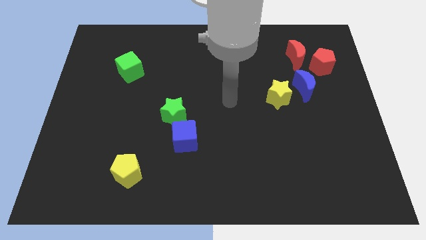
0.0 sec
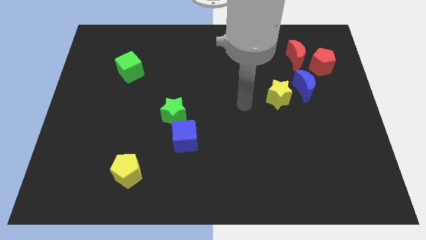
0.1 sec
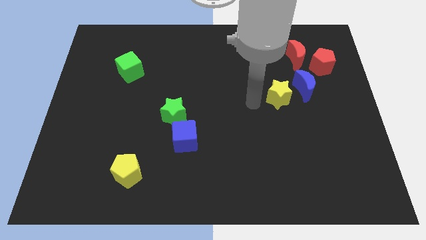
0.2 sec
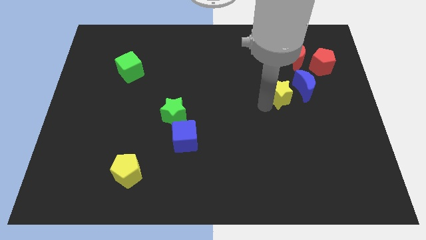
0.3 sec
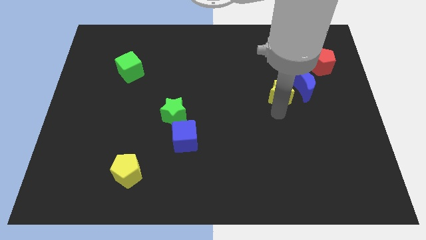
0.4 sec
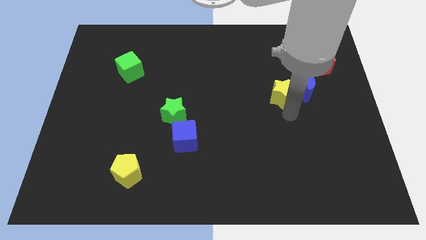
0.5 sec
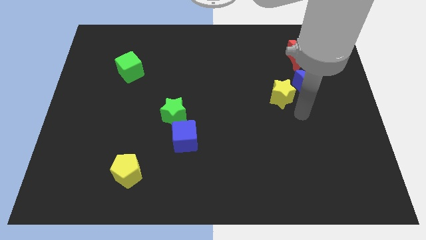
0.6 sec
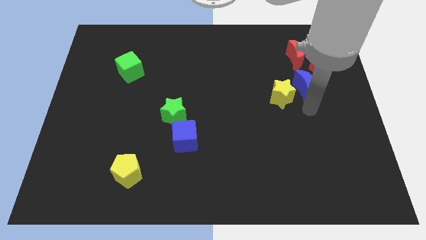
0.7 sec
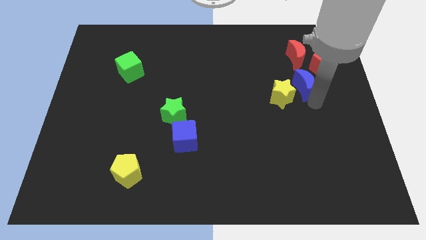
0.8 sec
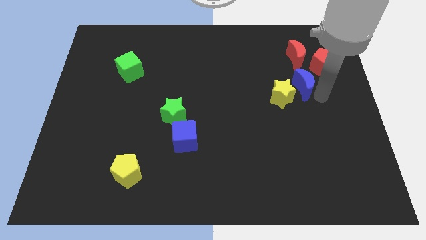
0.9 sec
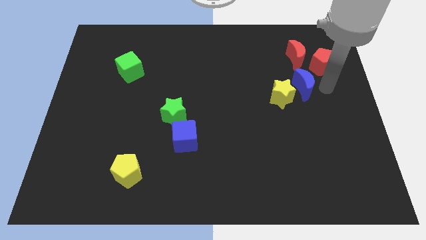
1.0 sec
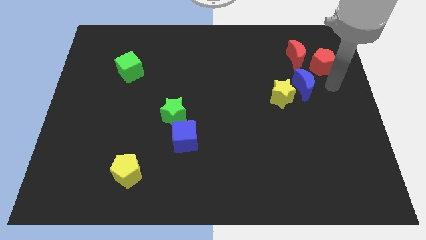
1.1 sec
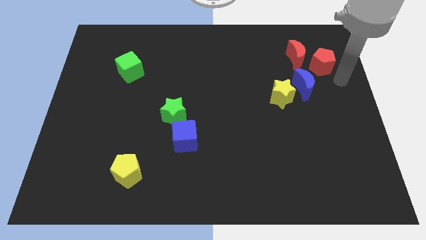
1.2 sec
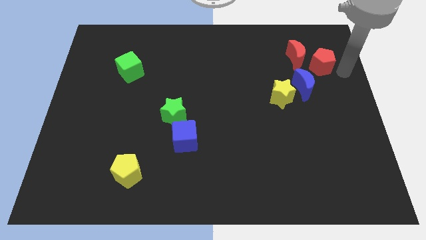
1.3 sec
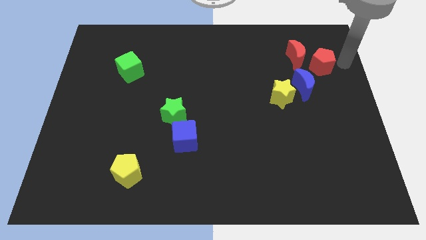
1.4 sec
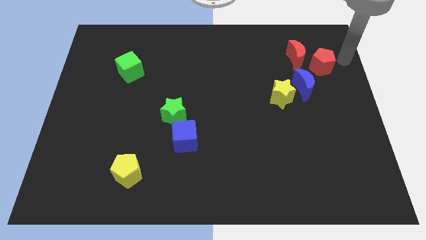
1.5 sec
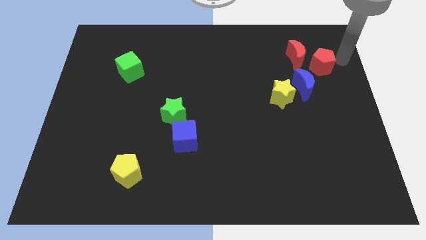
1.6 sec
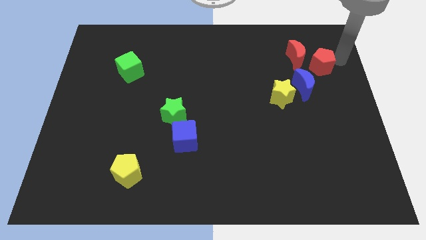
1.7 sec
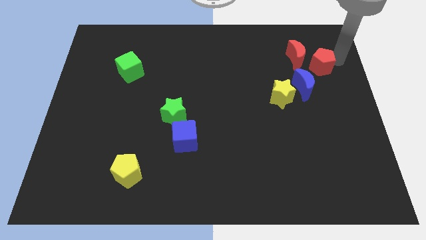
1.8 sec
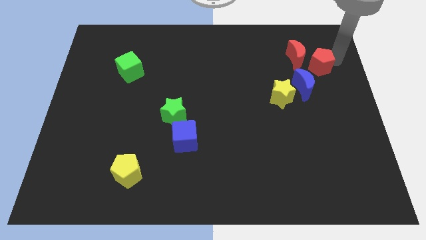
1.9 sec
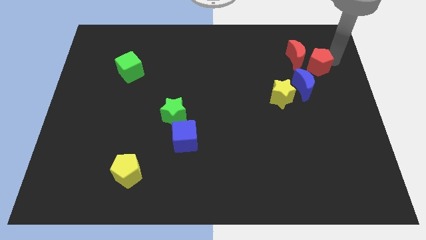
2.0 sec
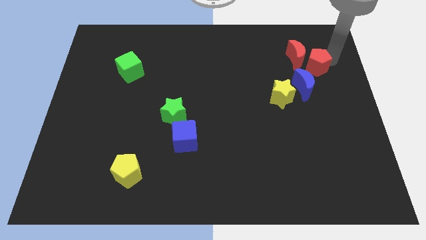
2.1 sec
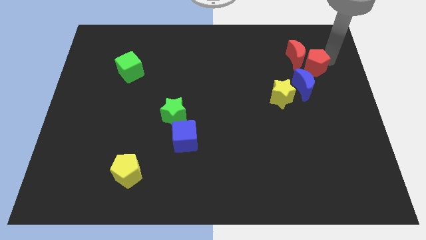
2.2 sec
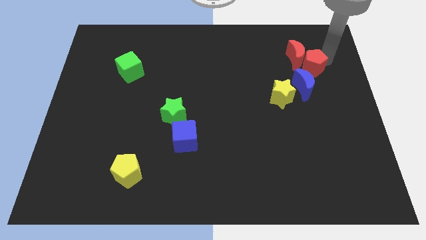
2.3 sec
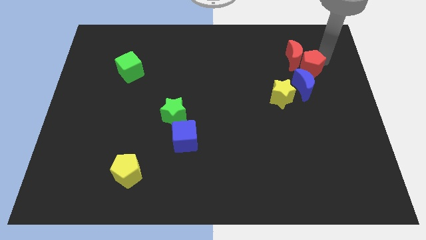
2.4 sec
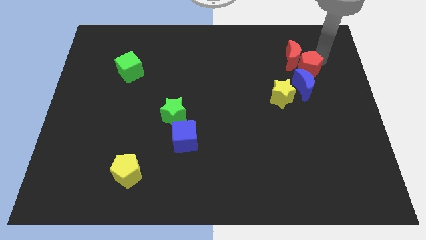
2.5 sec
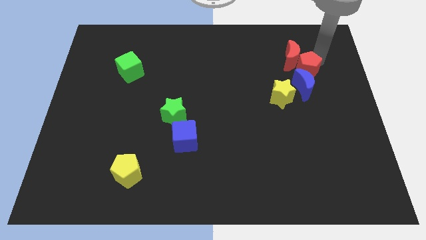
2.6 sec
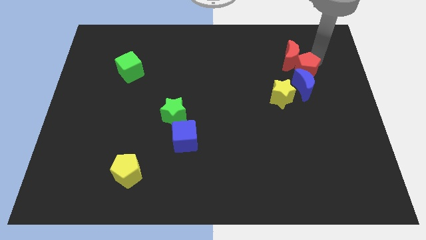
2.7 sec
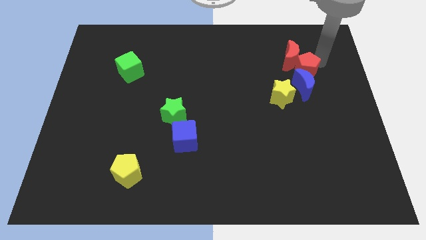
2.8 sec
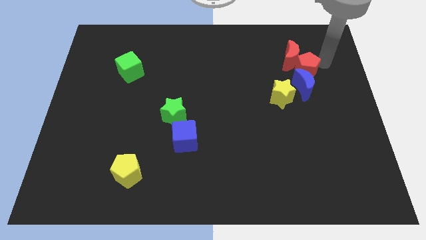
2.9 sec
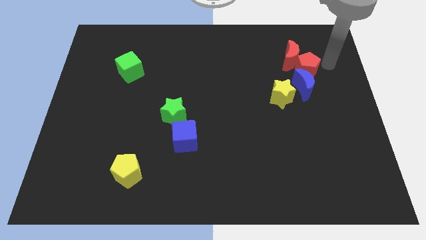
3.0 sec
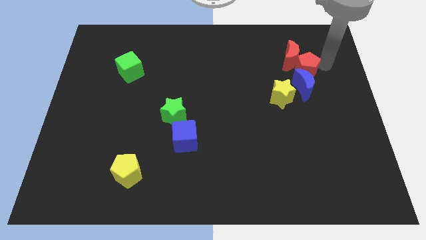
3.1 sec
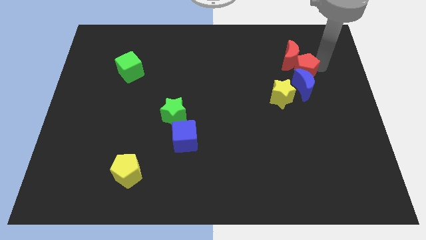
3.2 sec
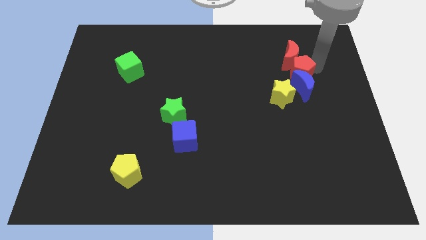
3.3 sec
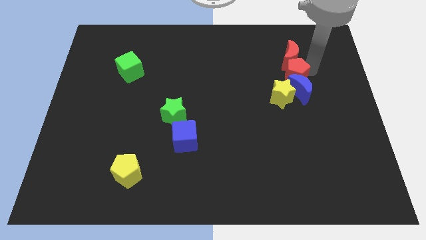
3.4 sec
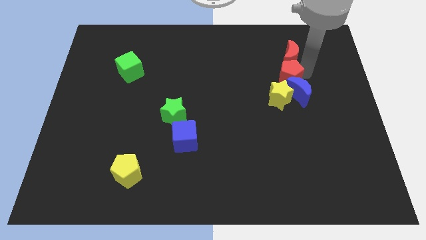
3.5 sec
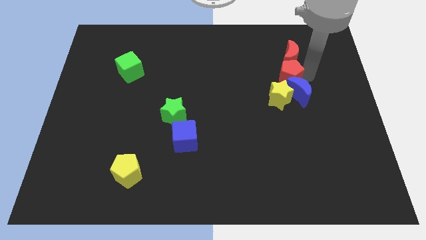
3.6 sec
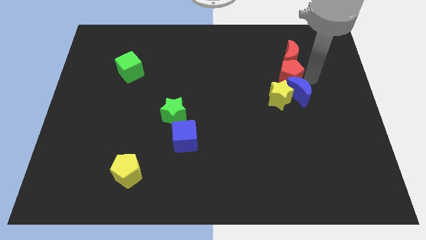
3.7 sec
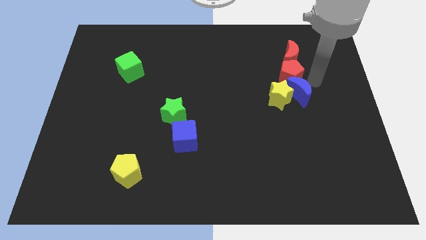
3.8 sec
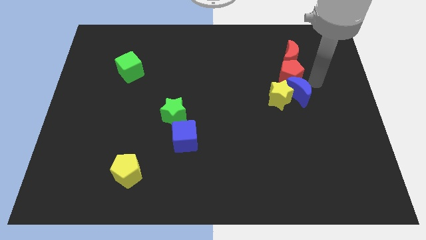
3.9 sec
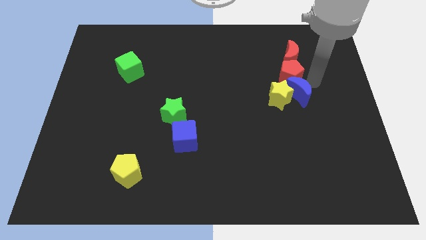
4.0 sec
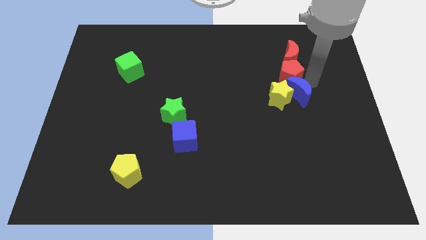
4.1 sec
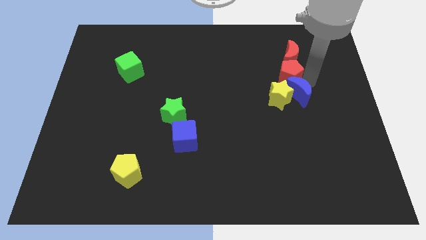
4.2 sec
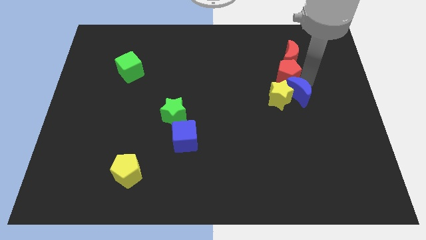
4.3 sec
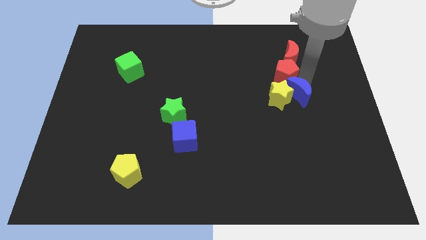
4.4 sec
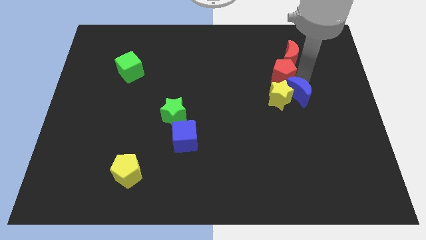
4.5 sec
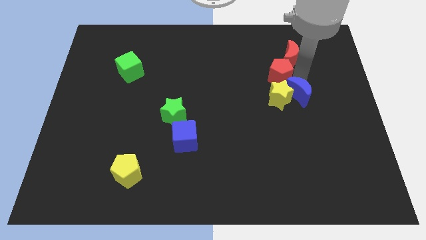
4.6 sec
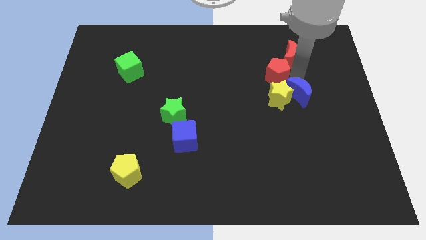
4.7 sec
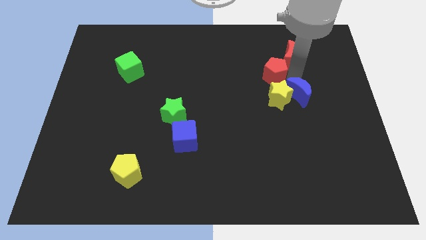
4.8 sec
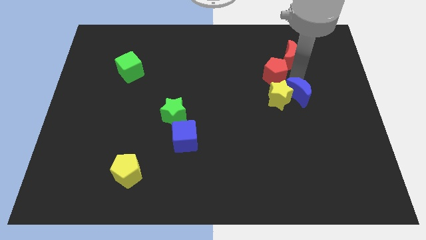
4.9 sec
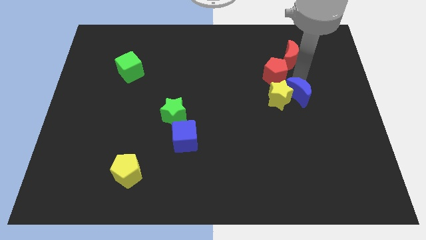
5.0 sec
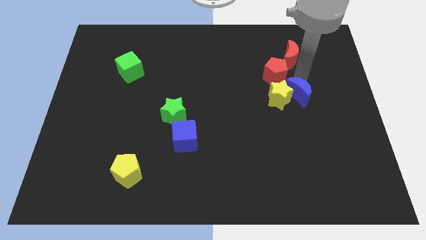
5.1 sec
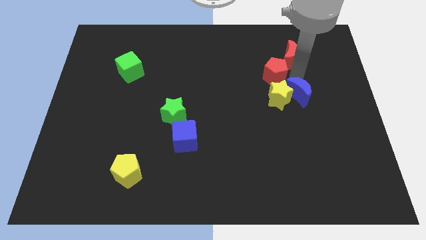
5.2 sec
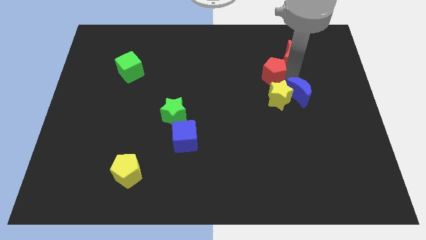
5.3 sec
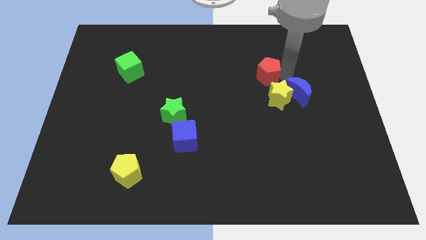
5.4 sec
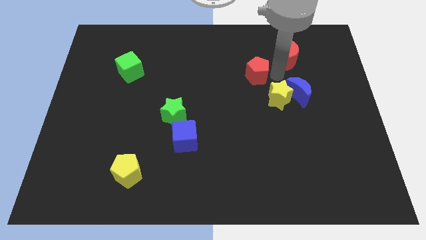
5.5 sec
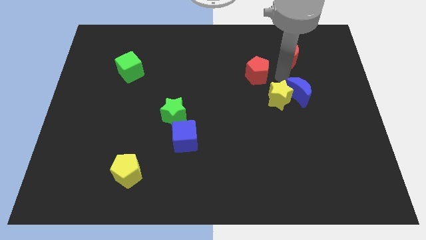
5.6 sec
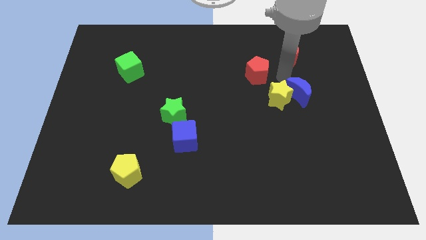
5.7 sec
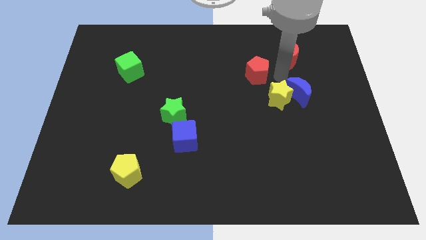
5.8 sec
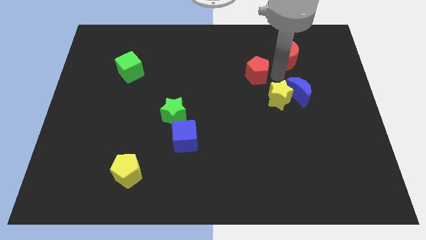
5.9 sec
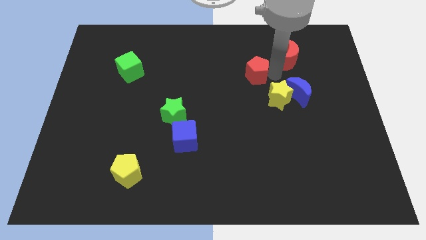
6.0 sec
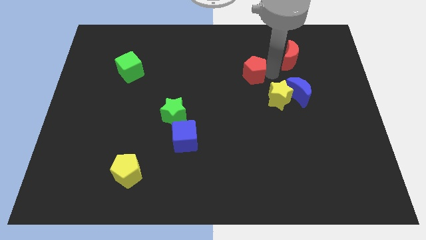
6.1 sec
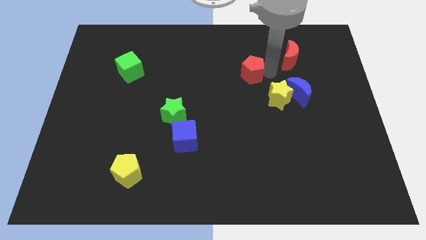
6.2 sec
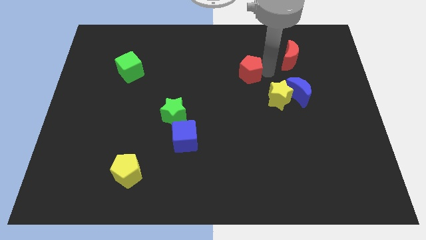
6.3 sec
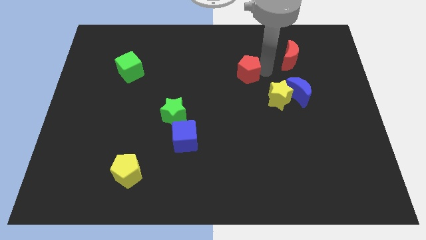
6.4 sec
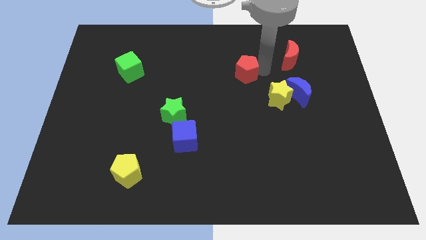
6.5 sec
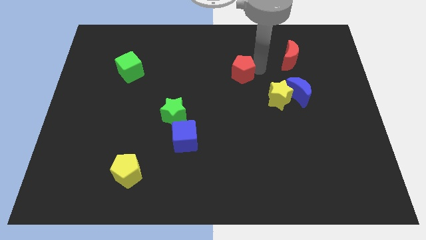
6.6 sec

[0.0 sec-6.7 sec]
slide the red pentagon to the left

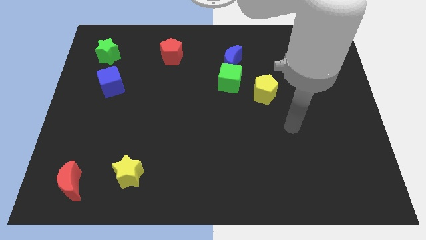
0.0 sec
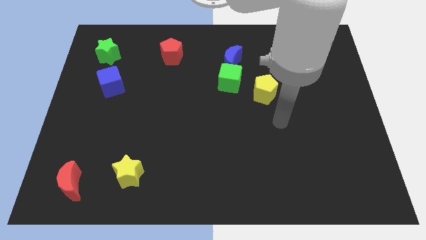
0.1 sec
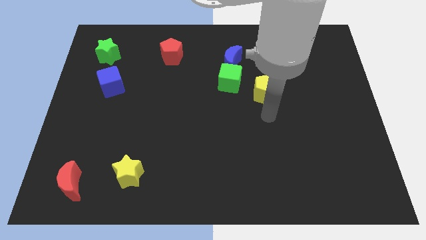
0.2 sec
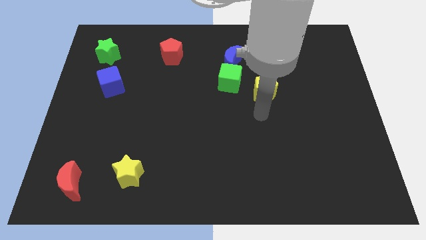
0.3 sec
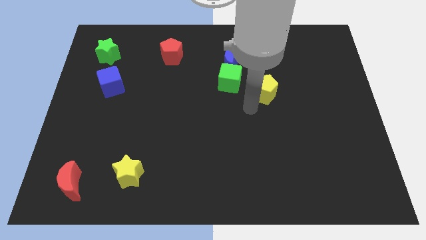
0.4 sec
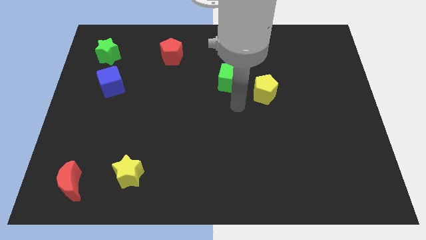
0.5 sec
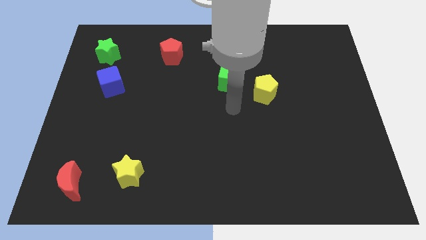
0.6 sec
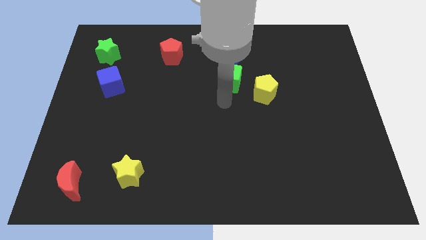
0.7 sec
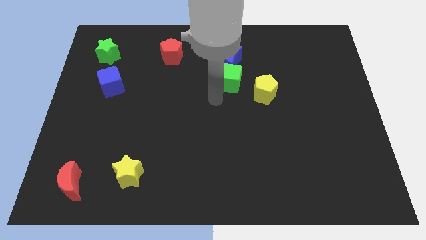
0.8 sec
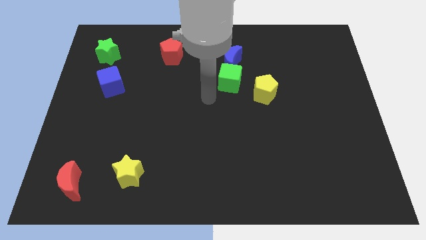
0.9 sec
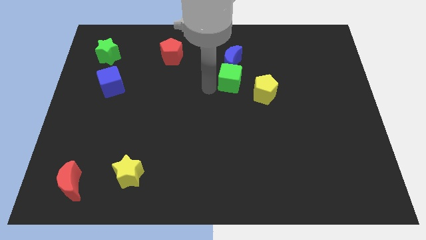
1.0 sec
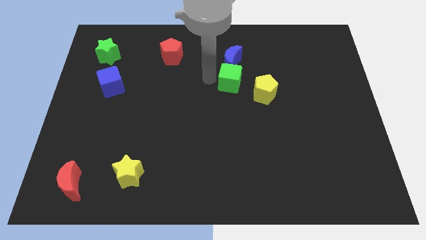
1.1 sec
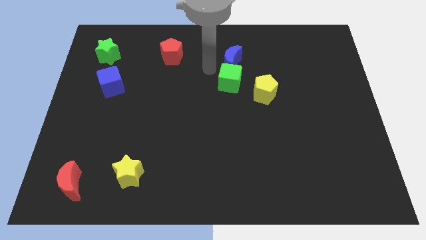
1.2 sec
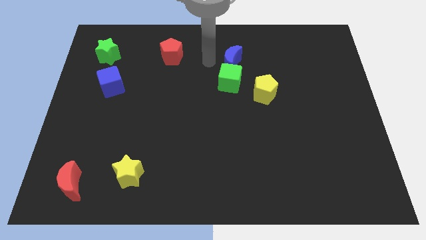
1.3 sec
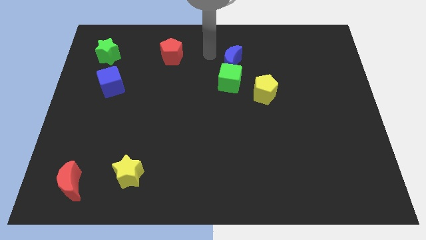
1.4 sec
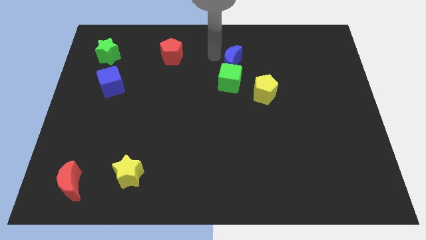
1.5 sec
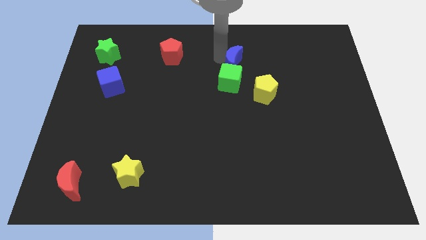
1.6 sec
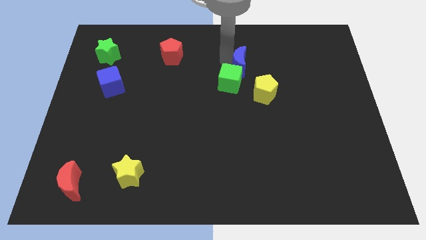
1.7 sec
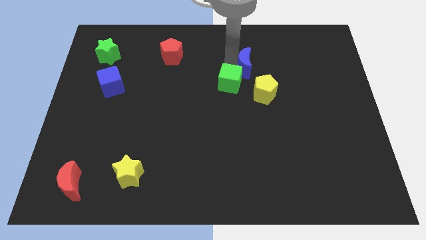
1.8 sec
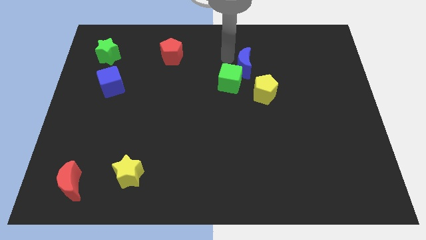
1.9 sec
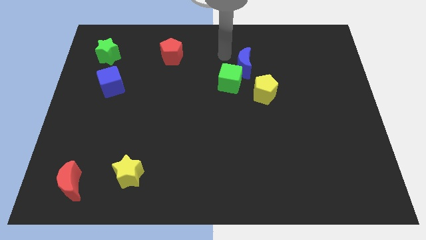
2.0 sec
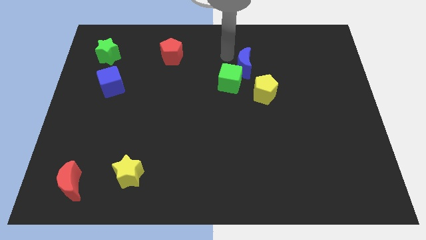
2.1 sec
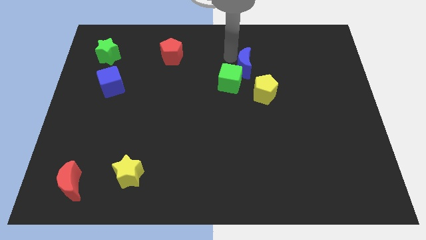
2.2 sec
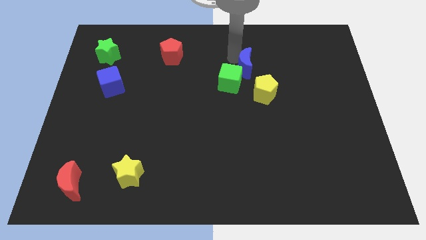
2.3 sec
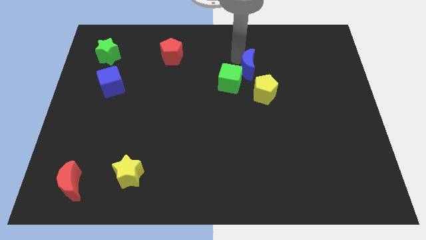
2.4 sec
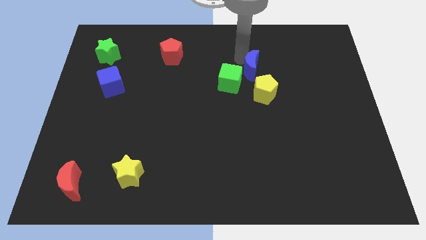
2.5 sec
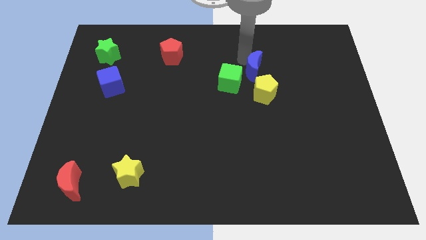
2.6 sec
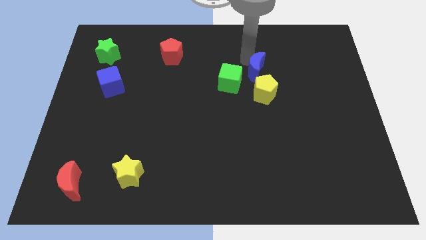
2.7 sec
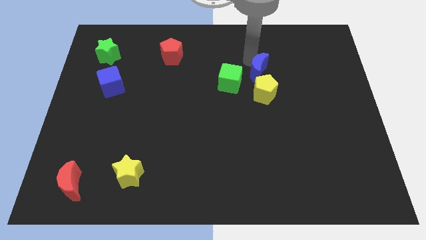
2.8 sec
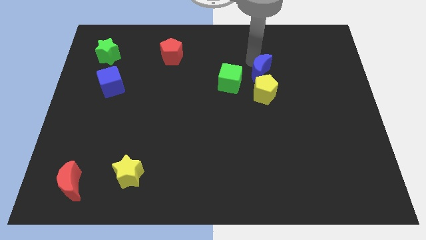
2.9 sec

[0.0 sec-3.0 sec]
push the blue moon slightly down and to the right diagonally
